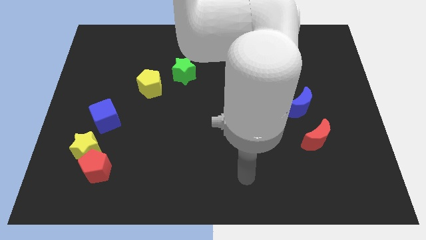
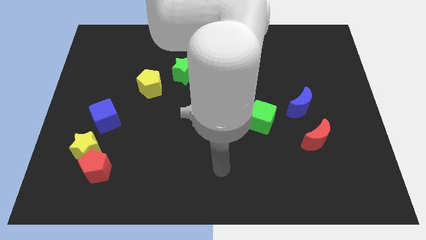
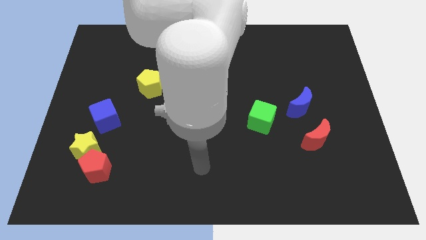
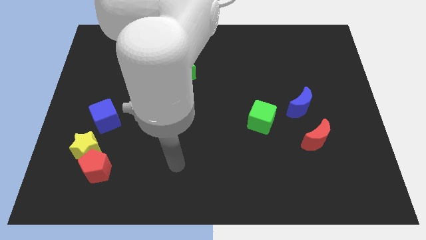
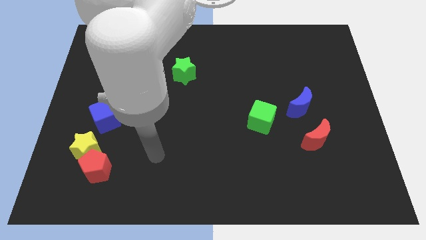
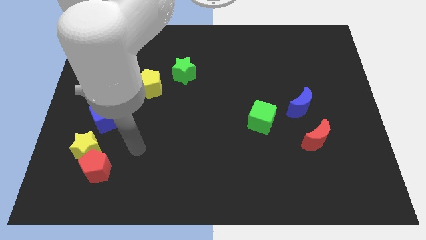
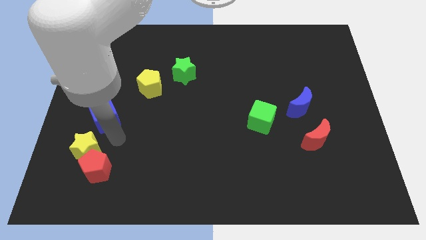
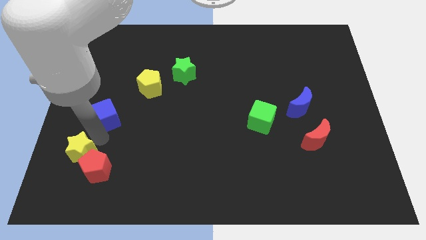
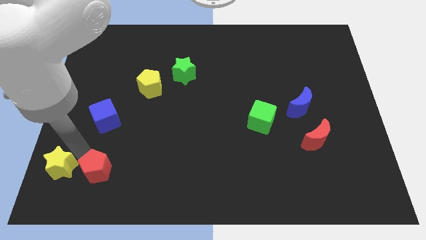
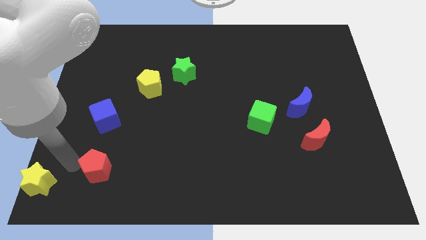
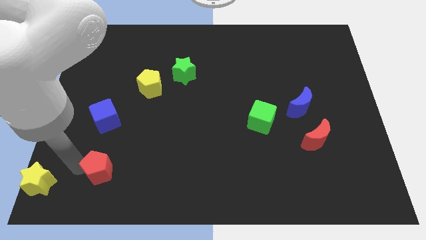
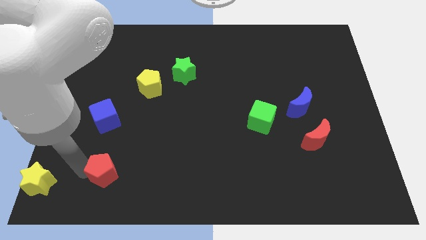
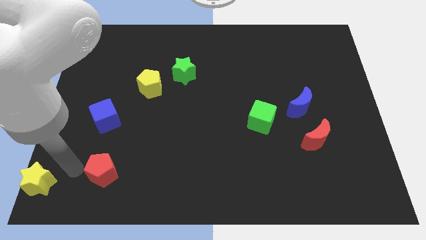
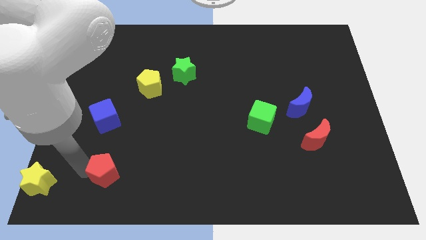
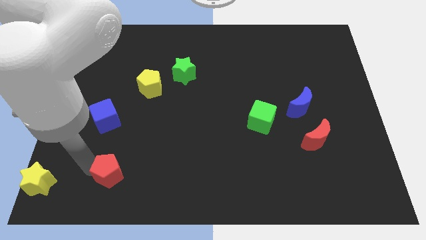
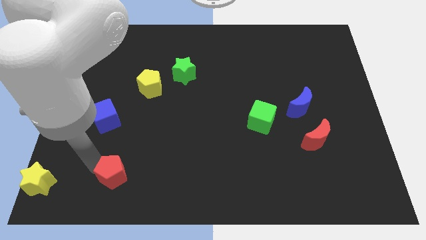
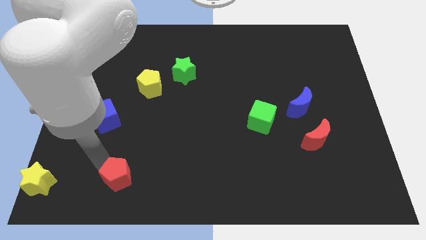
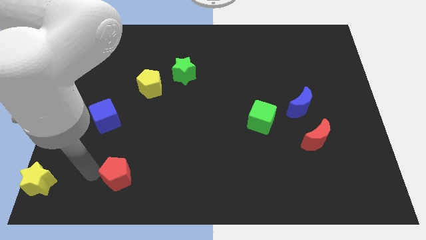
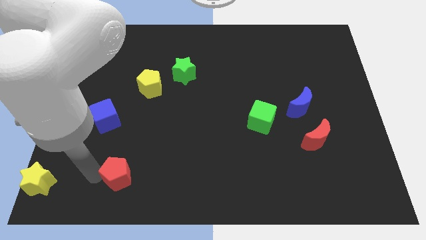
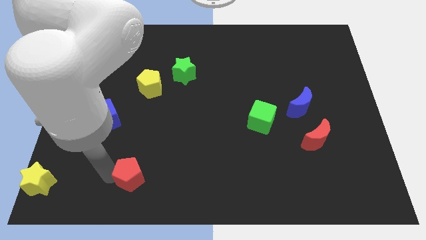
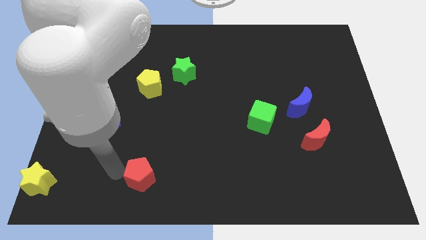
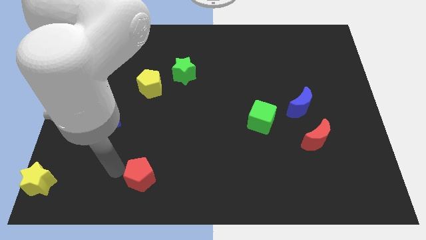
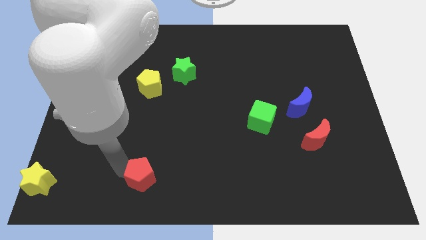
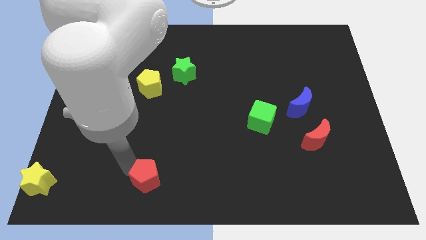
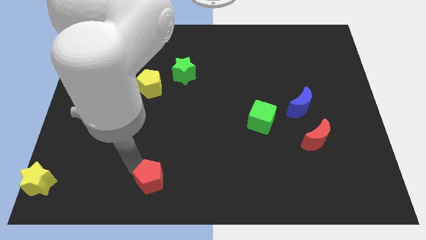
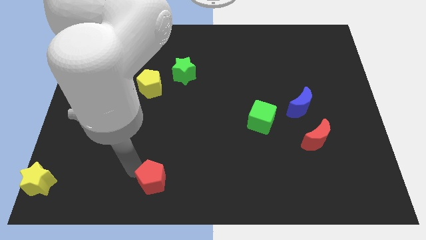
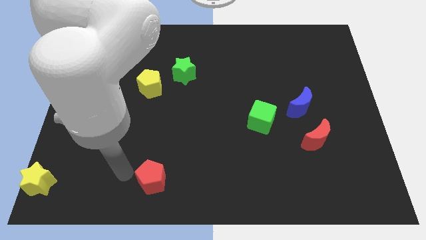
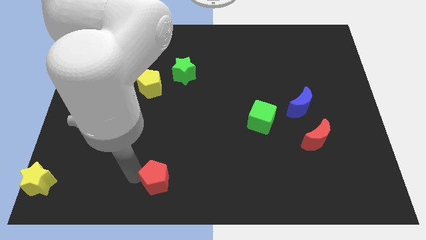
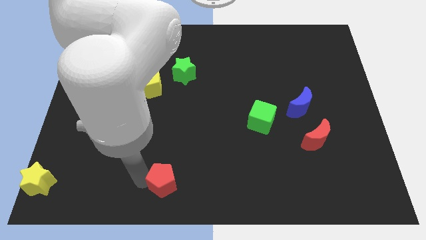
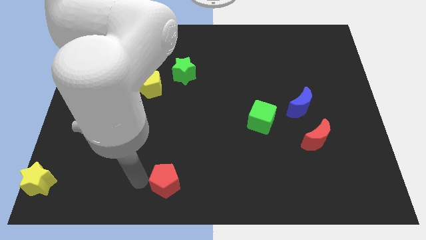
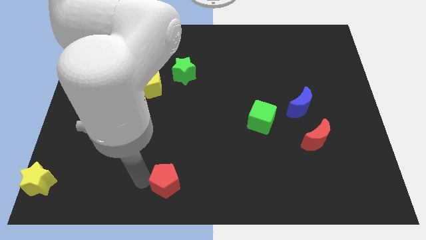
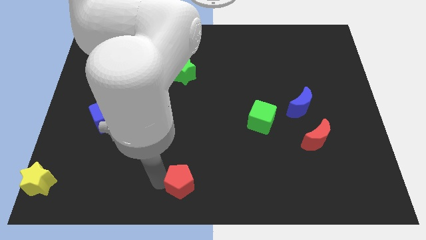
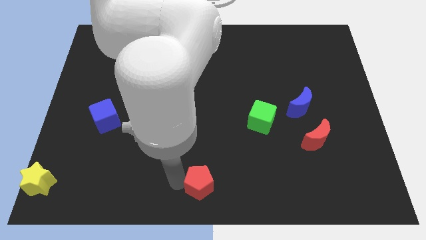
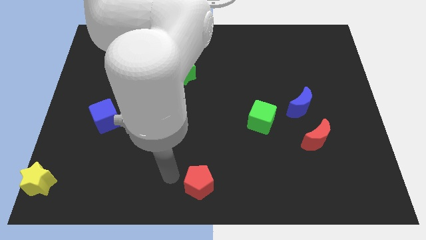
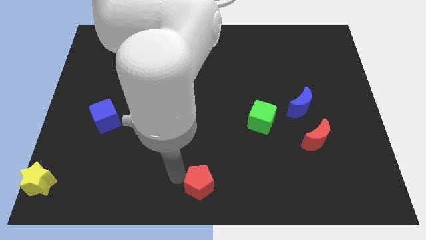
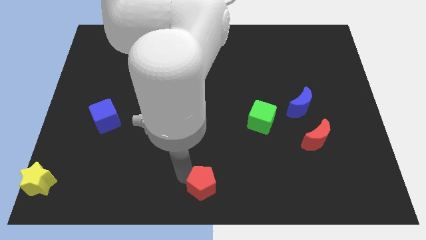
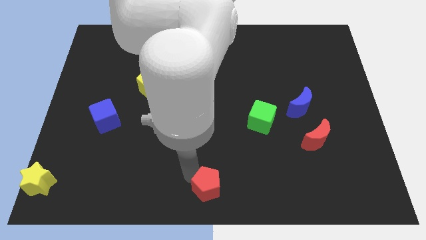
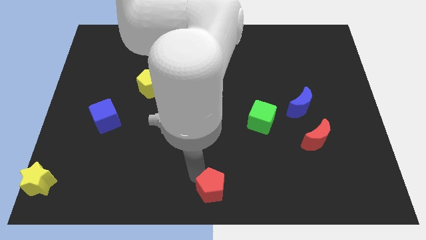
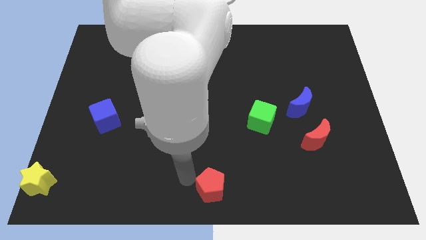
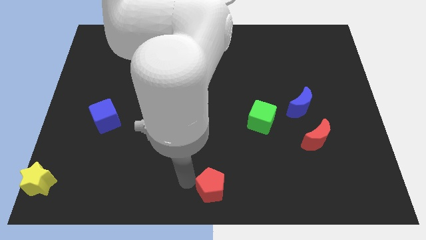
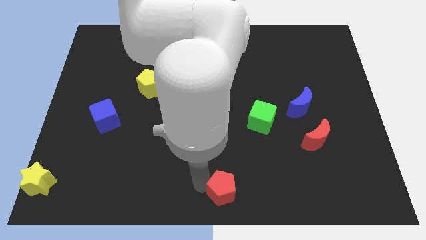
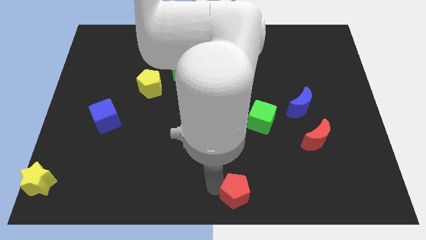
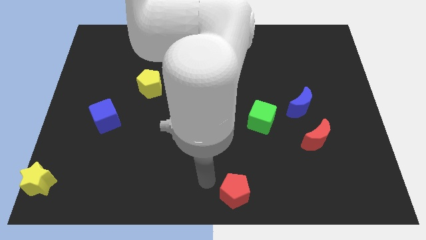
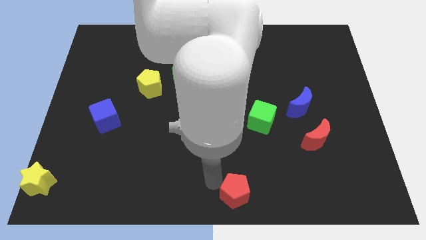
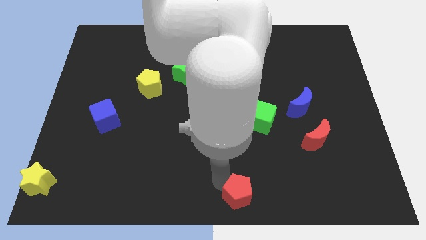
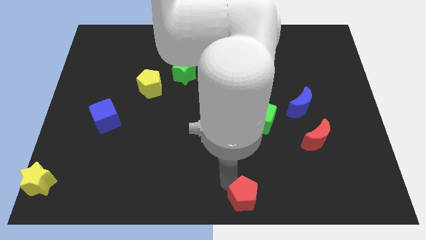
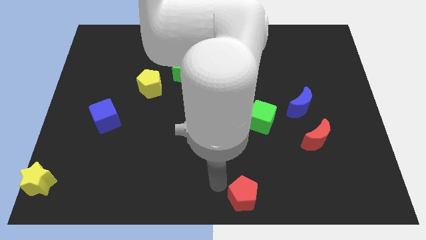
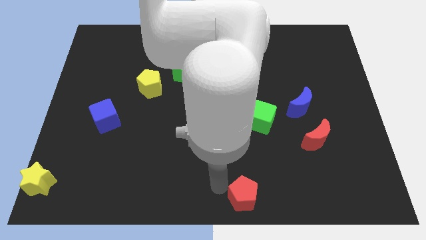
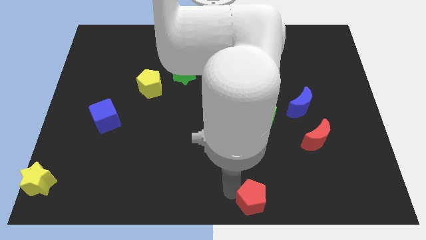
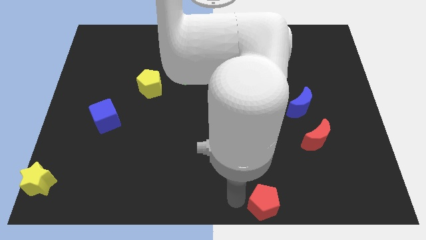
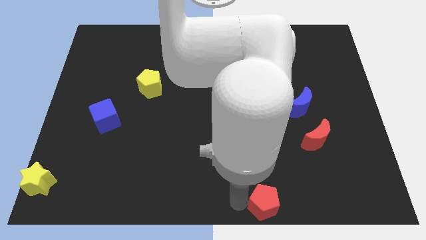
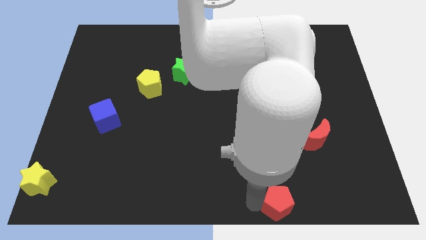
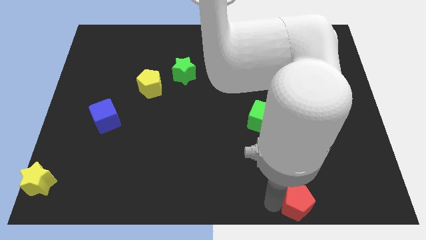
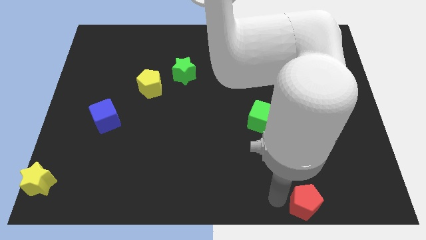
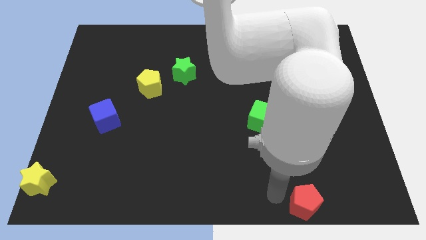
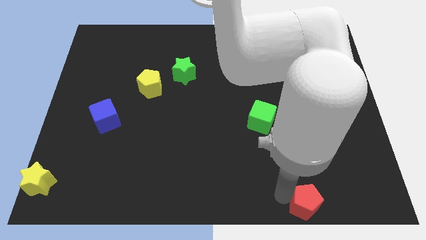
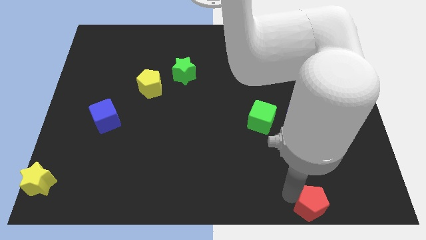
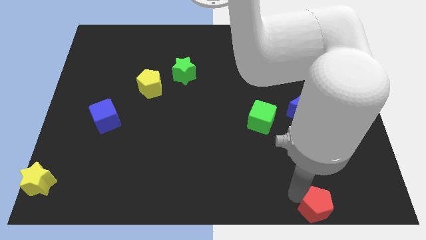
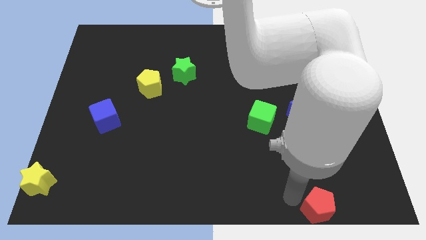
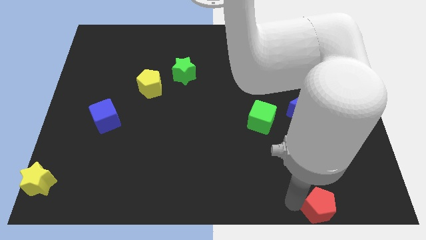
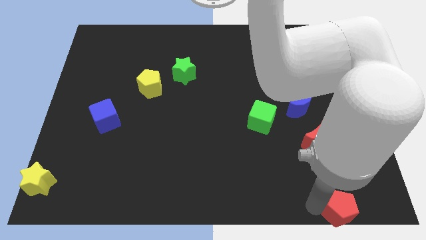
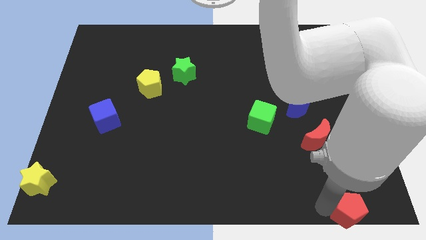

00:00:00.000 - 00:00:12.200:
move the red pentagon to the lower right corner

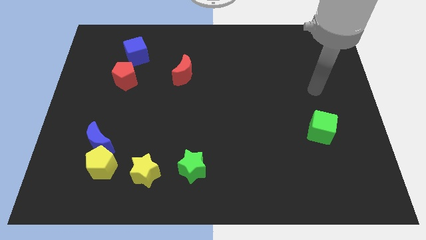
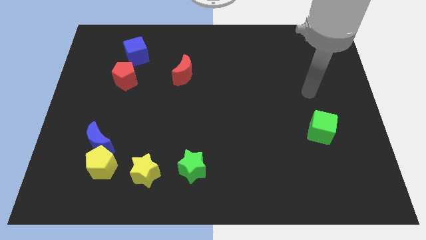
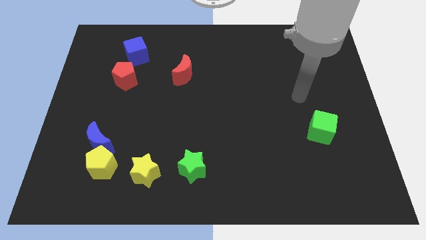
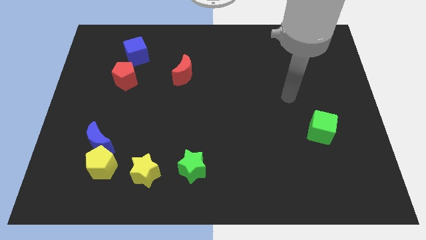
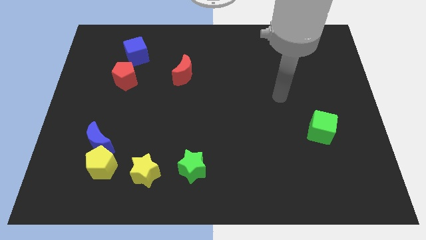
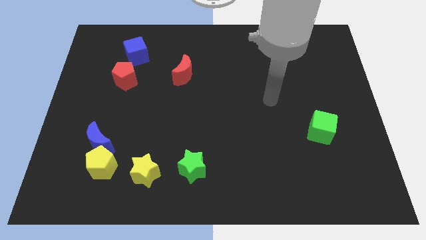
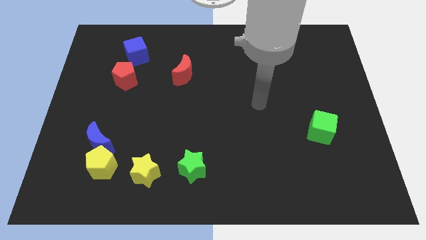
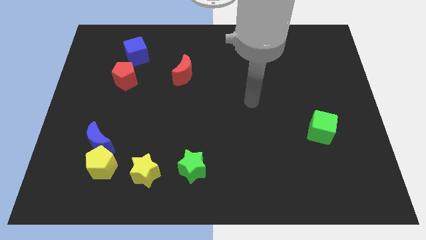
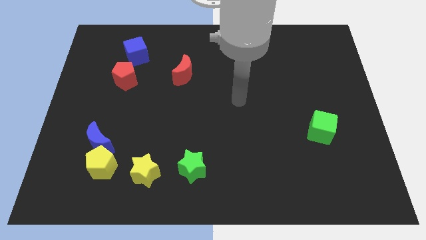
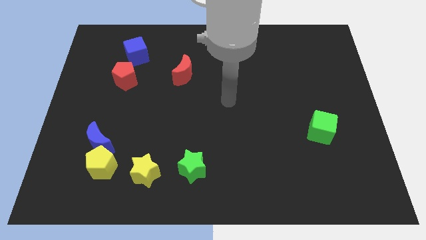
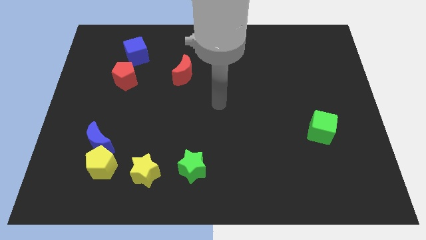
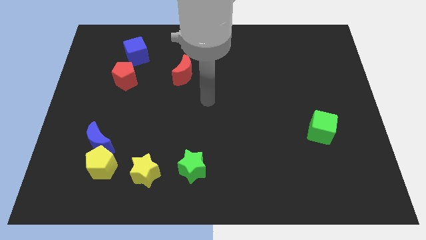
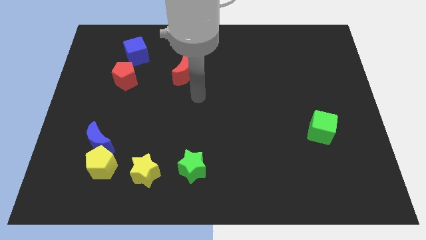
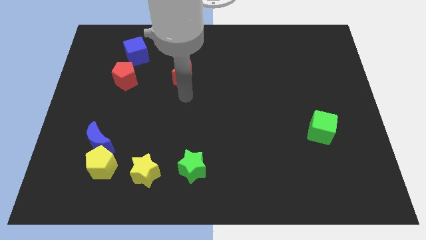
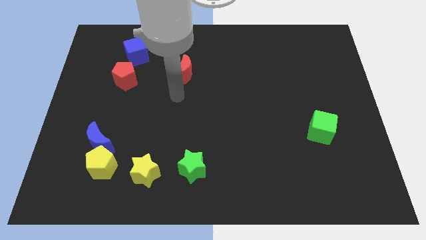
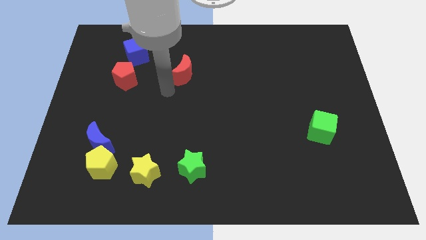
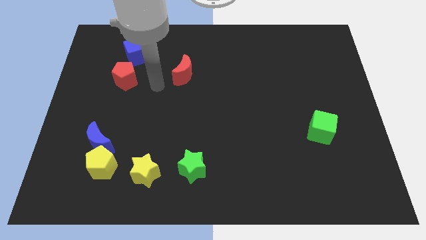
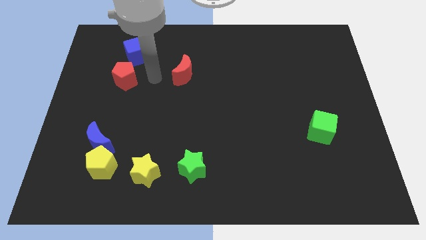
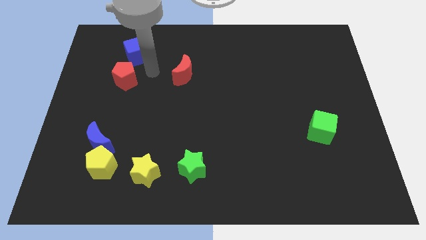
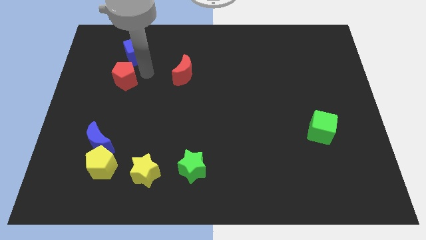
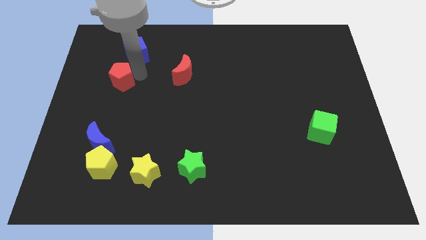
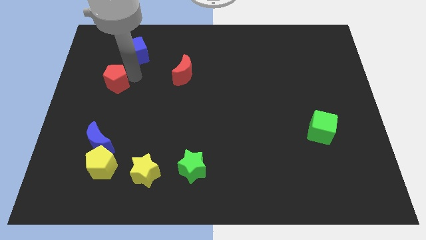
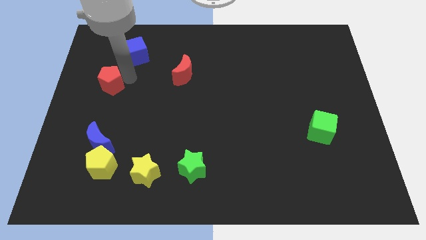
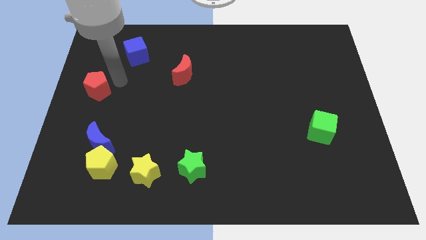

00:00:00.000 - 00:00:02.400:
slide the red pentagon to the center left
